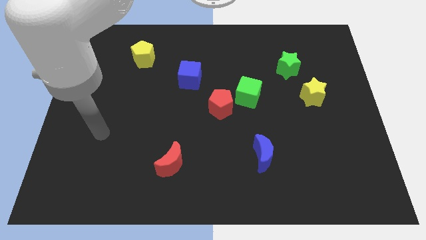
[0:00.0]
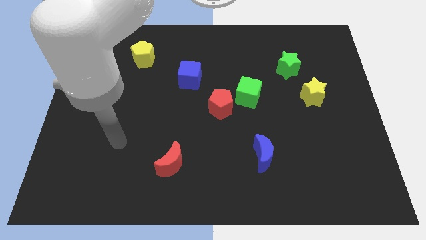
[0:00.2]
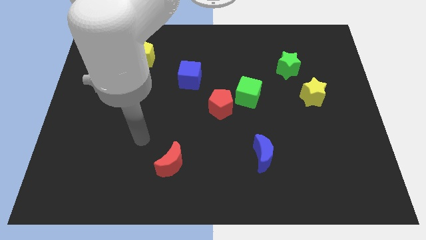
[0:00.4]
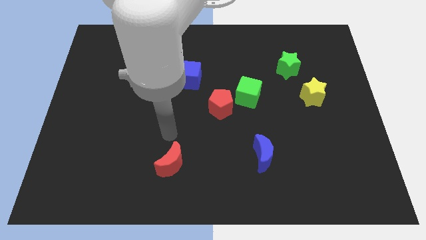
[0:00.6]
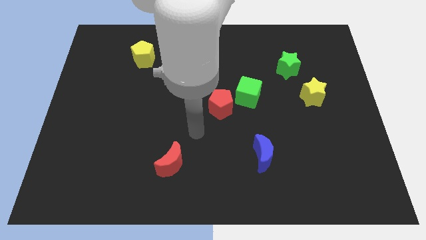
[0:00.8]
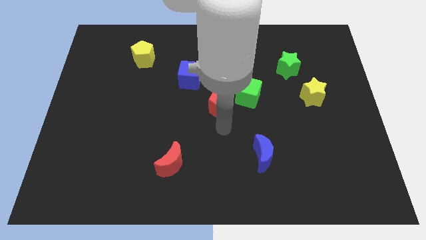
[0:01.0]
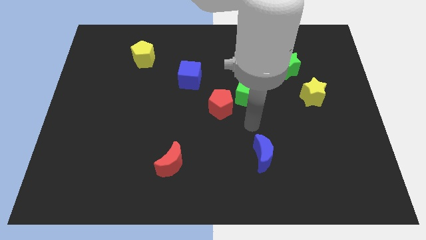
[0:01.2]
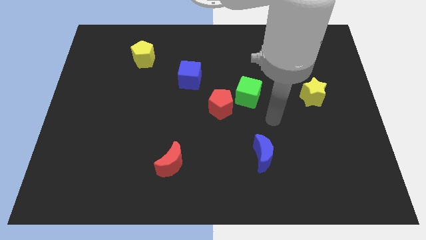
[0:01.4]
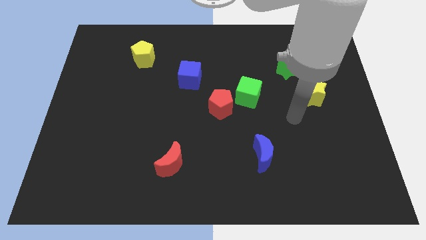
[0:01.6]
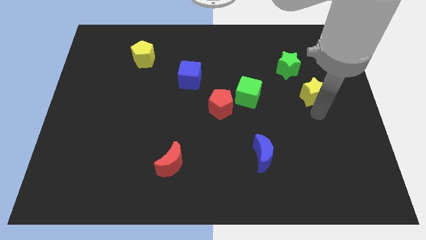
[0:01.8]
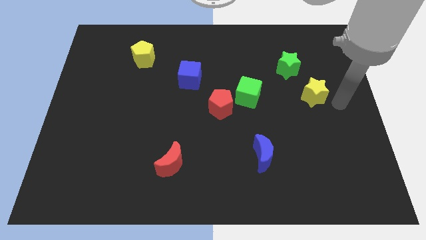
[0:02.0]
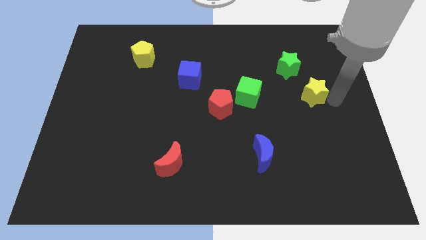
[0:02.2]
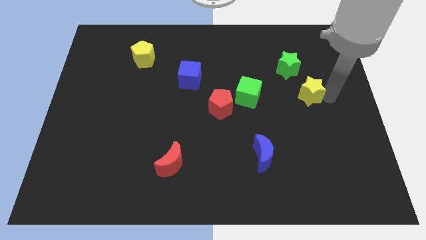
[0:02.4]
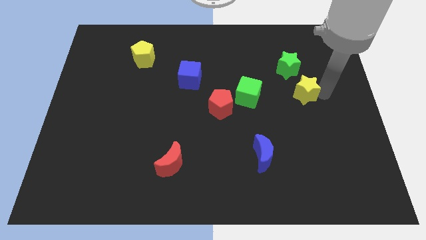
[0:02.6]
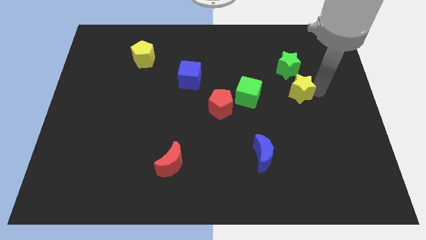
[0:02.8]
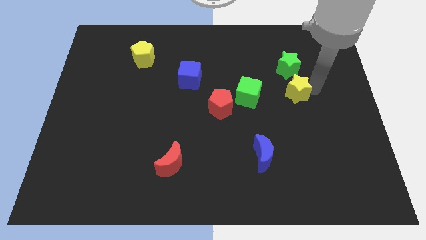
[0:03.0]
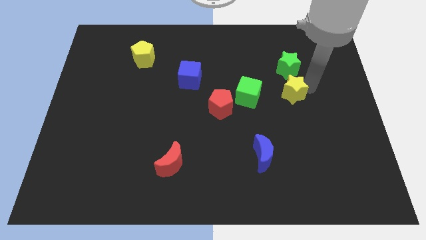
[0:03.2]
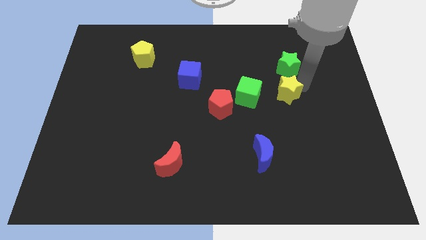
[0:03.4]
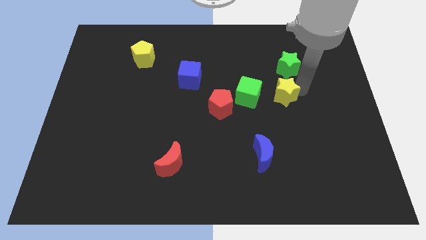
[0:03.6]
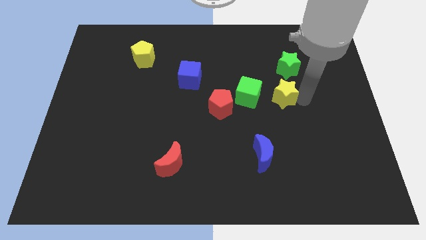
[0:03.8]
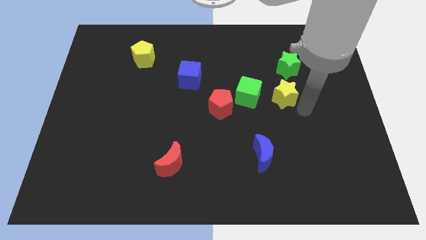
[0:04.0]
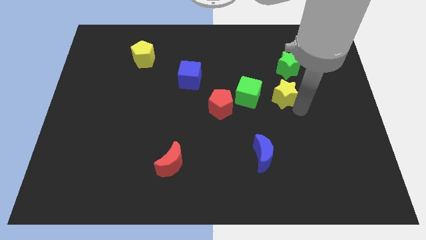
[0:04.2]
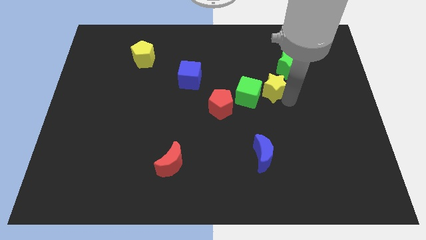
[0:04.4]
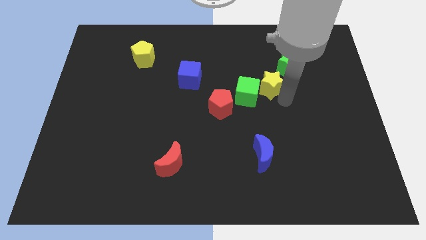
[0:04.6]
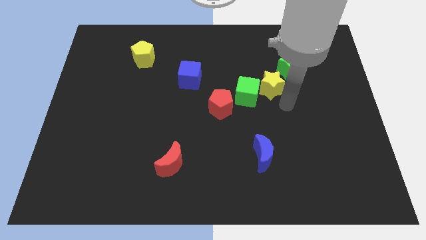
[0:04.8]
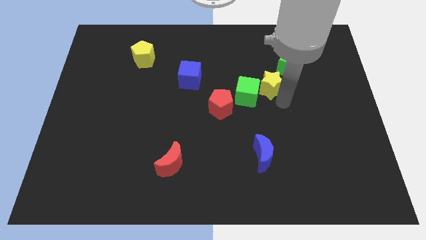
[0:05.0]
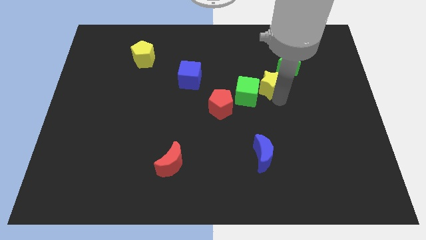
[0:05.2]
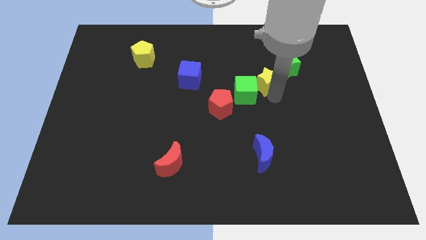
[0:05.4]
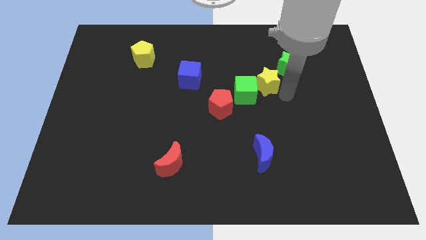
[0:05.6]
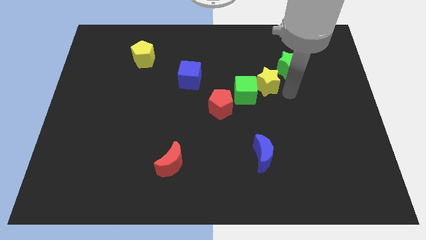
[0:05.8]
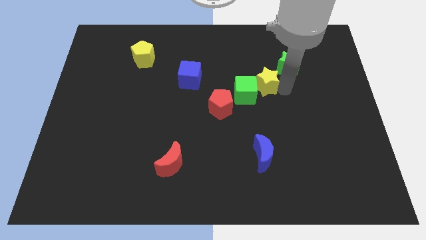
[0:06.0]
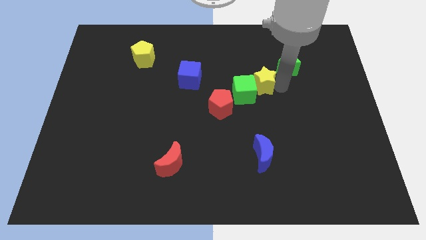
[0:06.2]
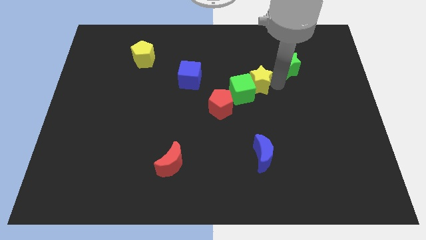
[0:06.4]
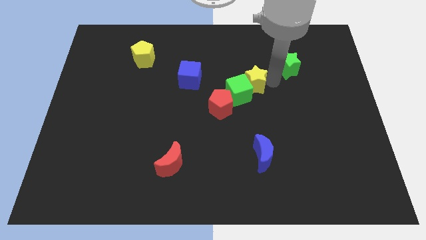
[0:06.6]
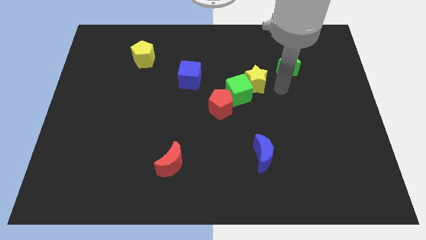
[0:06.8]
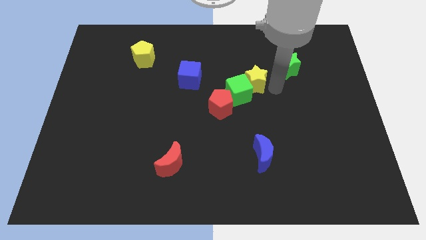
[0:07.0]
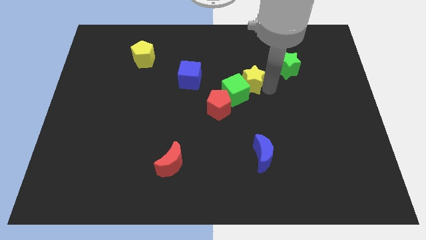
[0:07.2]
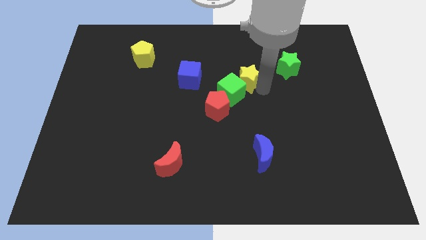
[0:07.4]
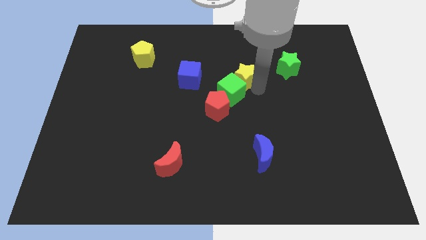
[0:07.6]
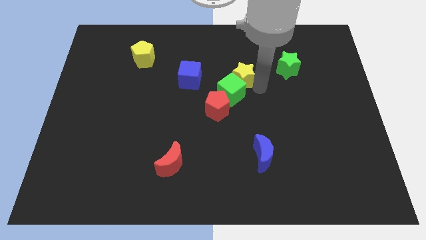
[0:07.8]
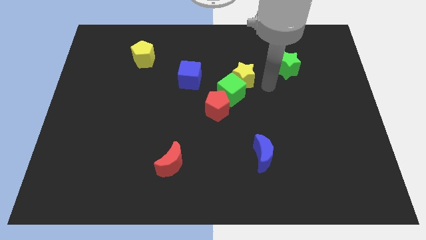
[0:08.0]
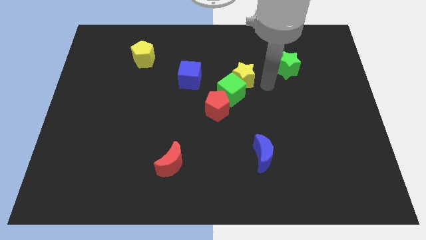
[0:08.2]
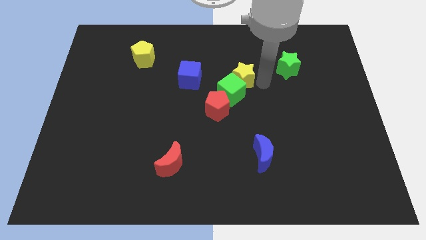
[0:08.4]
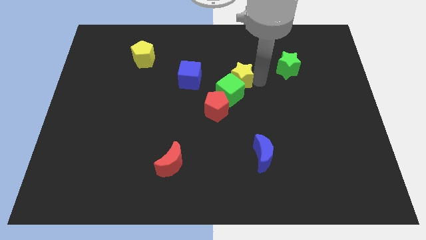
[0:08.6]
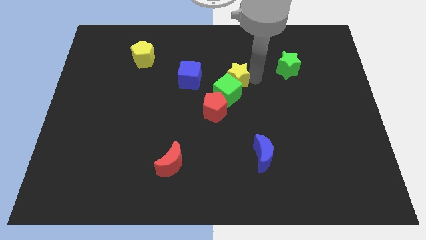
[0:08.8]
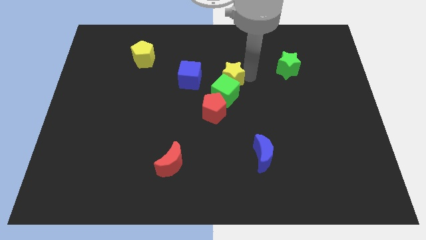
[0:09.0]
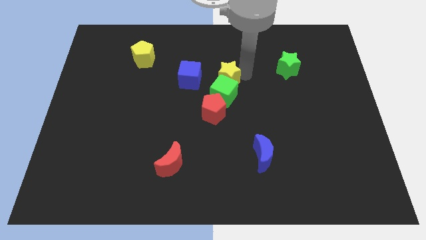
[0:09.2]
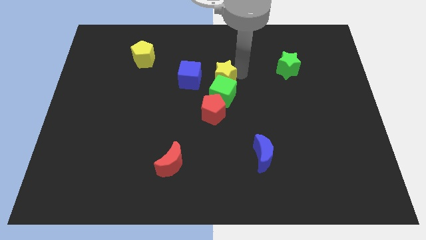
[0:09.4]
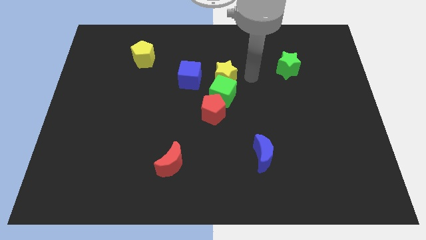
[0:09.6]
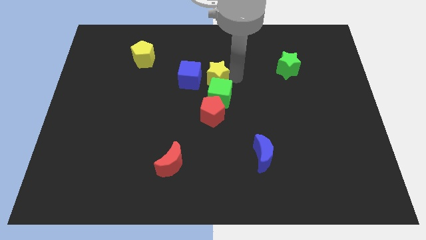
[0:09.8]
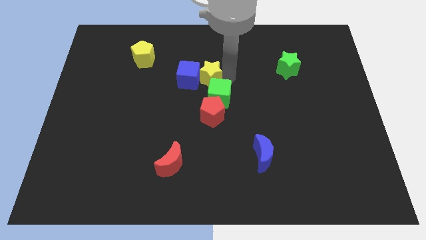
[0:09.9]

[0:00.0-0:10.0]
put the yellow star towards the blue cube

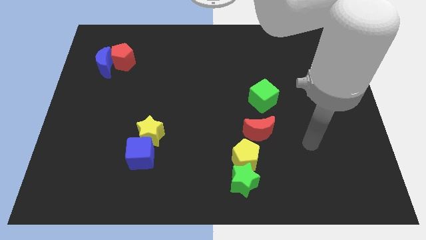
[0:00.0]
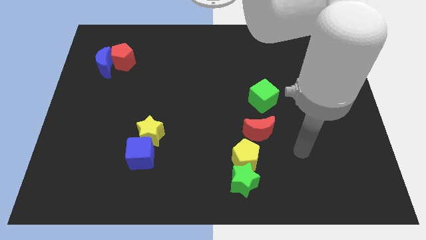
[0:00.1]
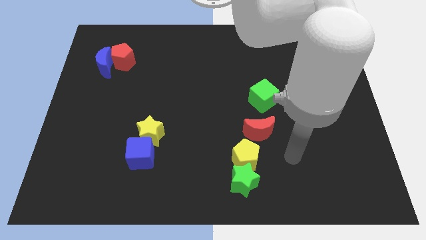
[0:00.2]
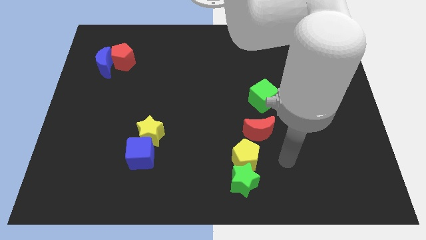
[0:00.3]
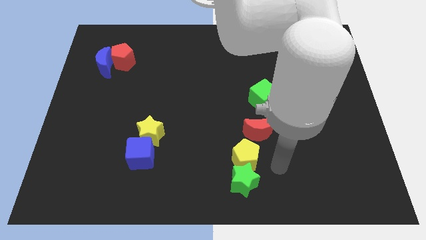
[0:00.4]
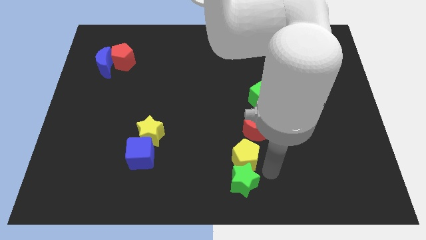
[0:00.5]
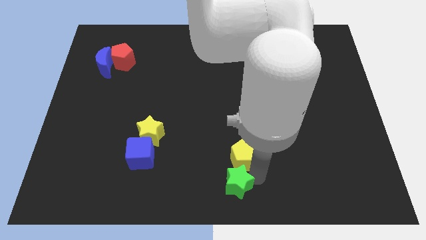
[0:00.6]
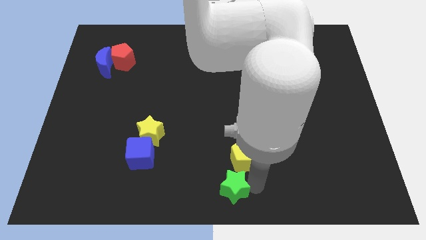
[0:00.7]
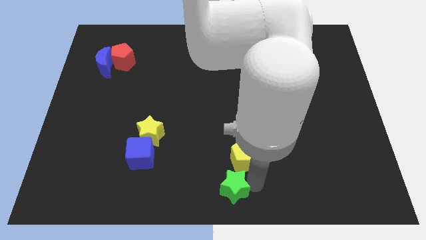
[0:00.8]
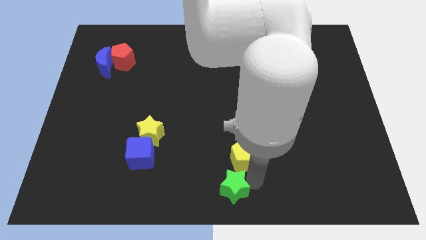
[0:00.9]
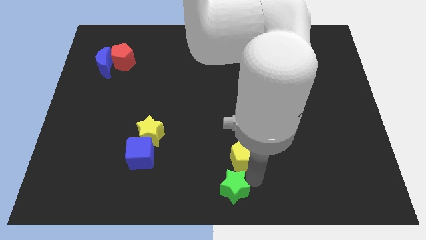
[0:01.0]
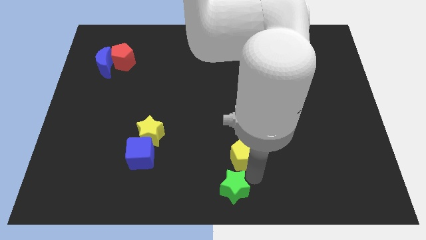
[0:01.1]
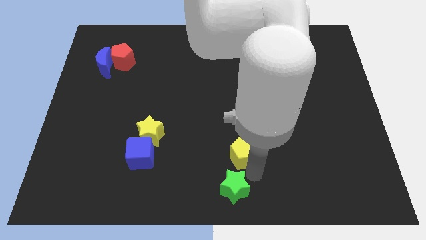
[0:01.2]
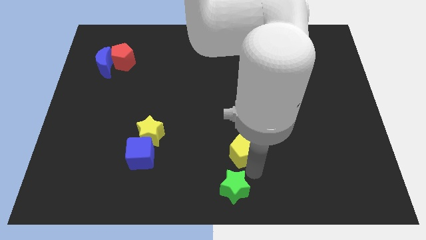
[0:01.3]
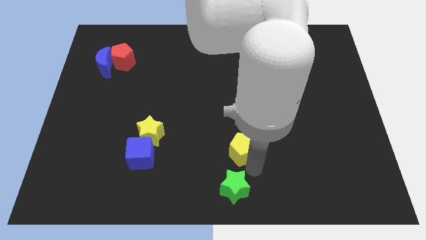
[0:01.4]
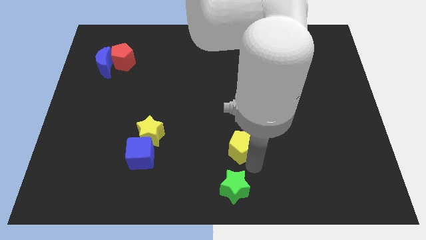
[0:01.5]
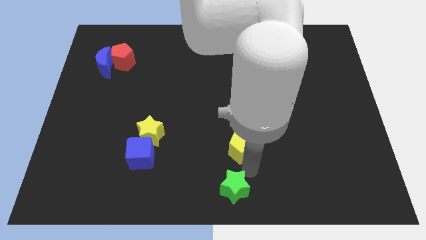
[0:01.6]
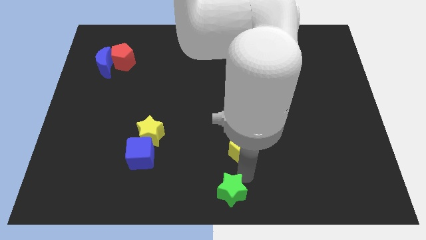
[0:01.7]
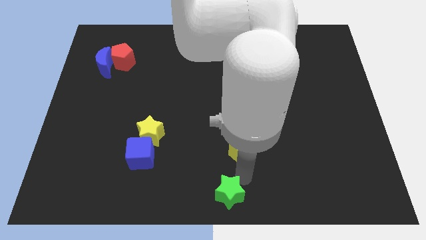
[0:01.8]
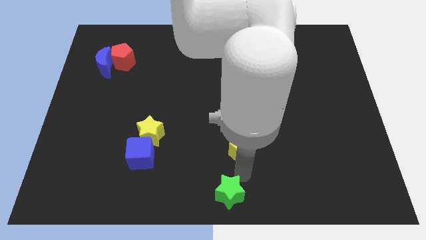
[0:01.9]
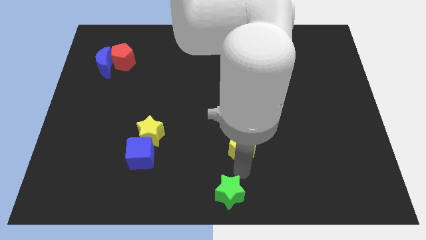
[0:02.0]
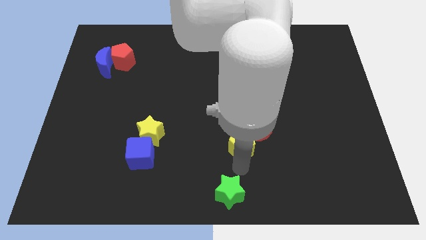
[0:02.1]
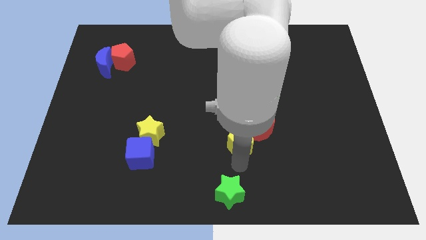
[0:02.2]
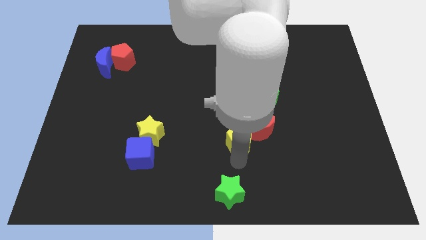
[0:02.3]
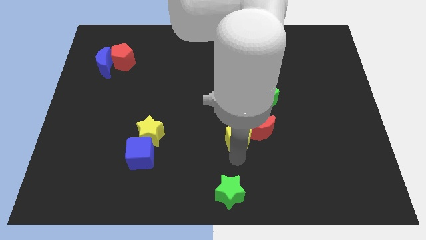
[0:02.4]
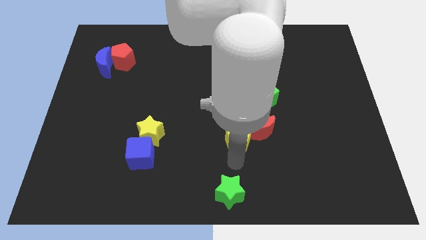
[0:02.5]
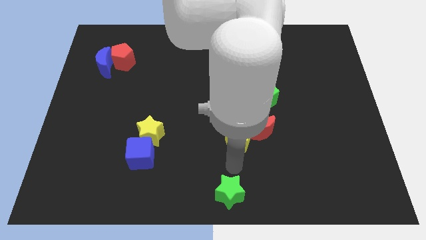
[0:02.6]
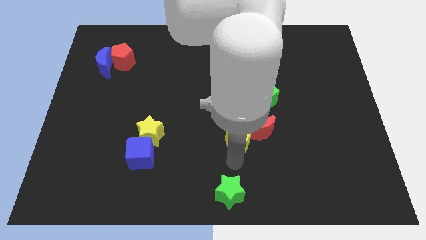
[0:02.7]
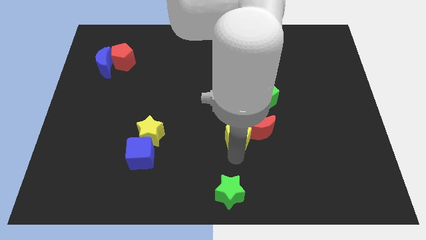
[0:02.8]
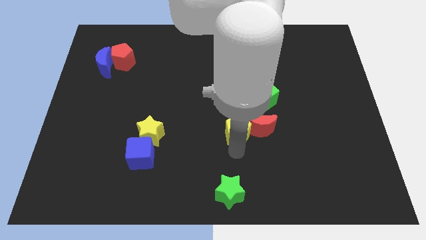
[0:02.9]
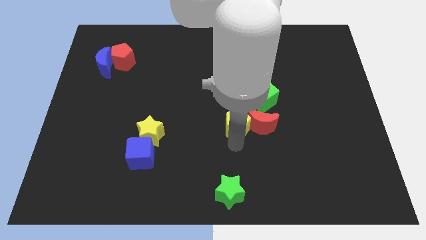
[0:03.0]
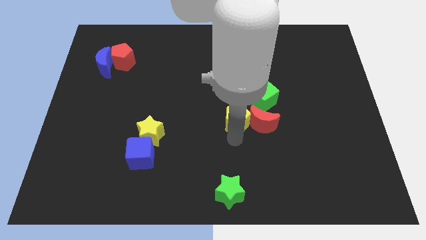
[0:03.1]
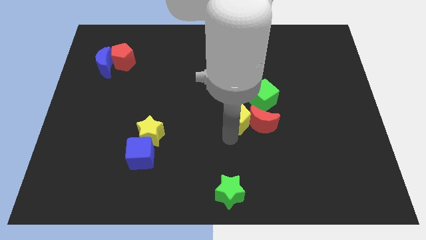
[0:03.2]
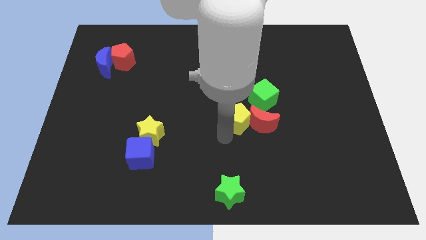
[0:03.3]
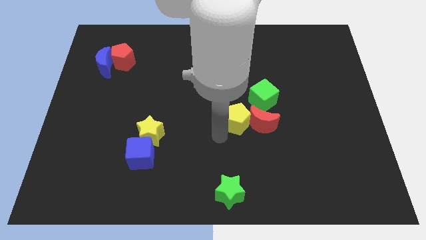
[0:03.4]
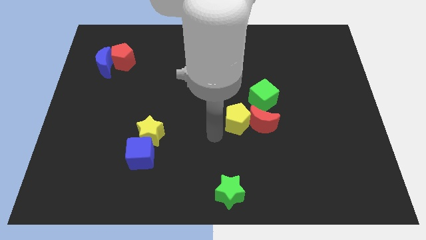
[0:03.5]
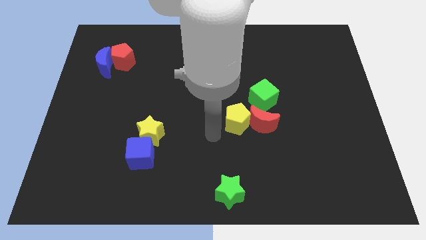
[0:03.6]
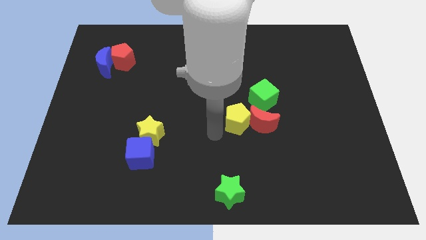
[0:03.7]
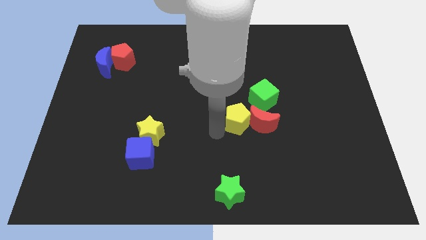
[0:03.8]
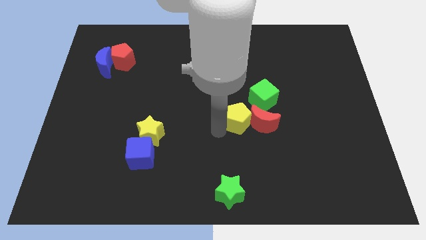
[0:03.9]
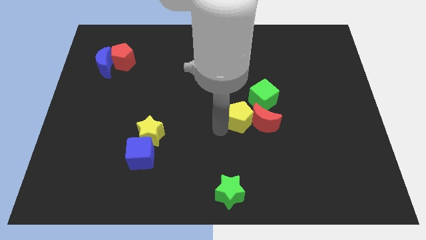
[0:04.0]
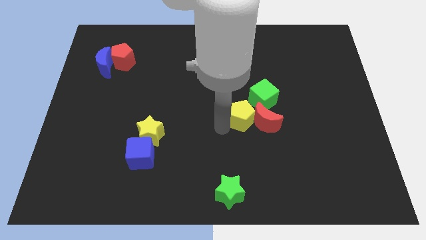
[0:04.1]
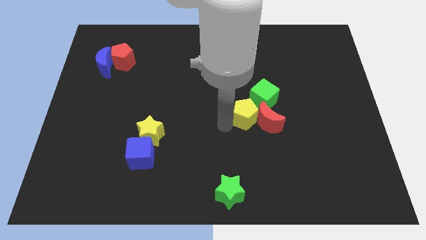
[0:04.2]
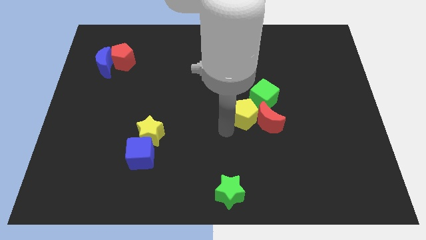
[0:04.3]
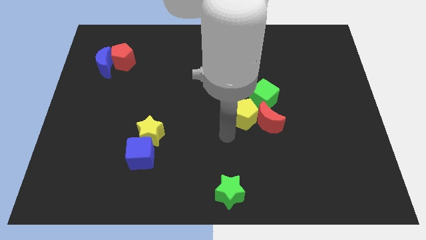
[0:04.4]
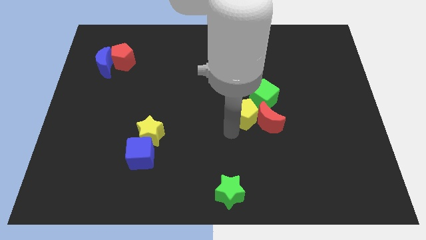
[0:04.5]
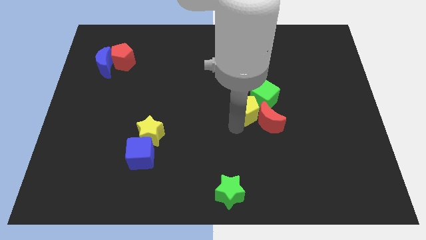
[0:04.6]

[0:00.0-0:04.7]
push the yellow pentagon to the green cube
